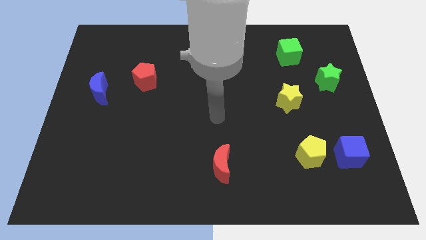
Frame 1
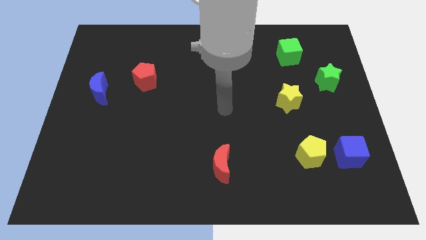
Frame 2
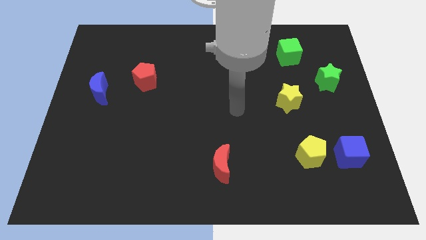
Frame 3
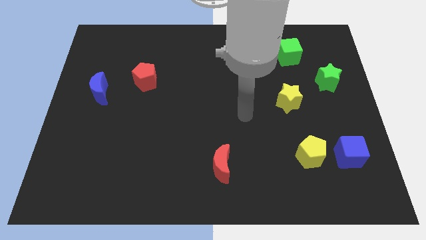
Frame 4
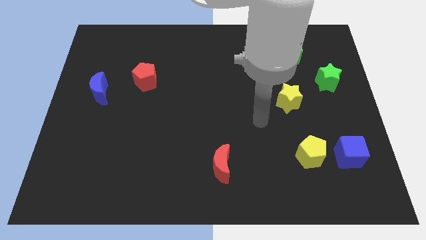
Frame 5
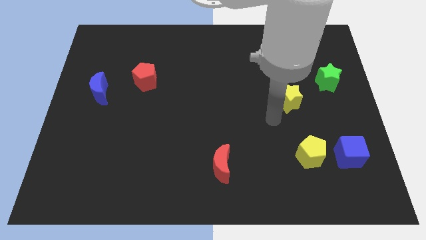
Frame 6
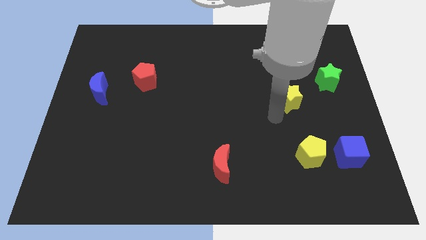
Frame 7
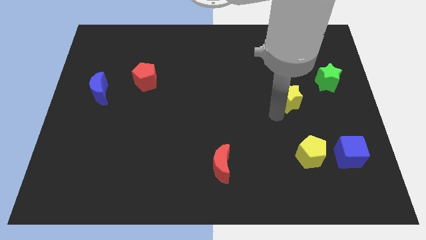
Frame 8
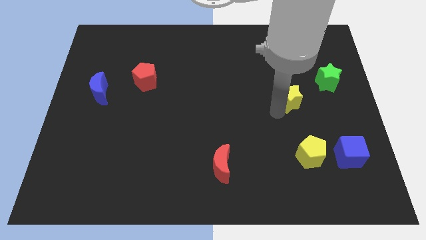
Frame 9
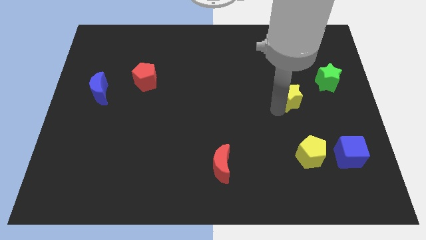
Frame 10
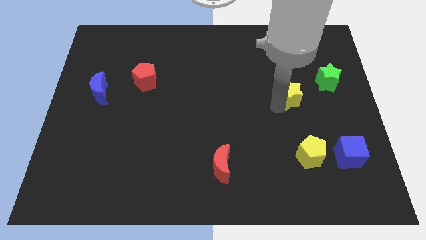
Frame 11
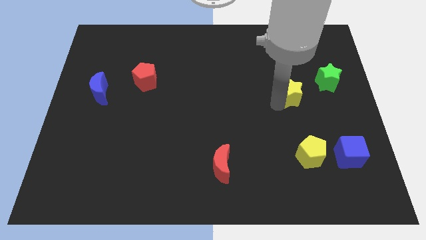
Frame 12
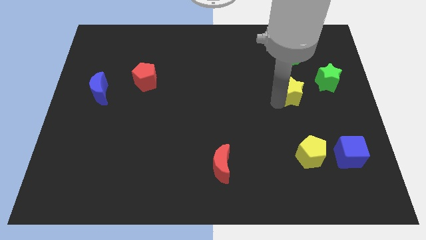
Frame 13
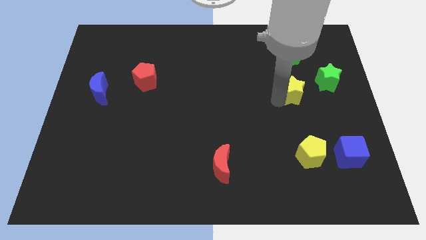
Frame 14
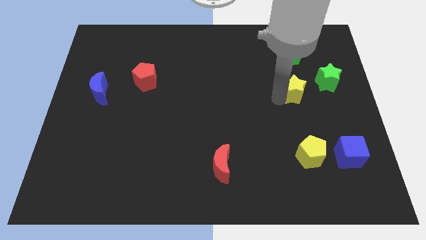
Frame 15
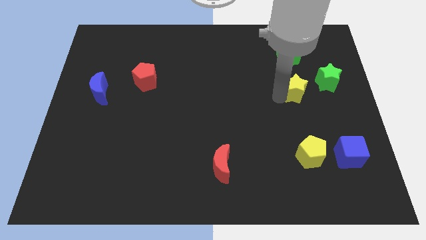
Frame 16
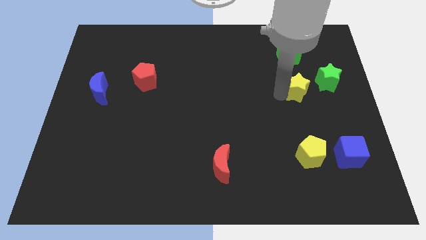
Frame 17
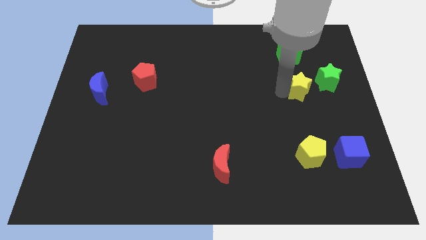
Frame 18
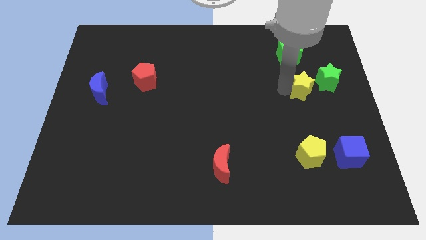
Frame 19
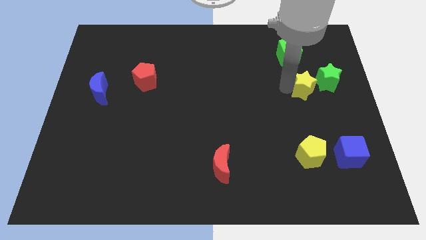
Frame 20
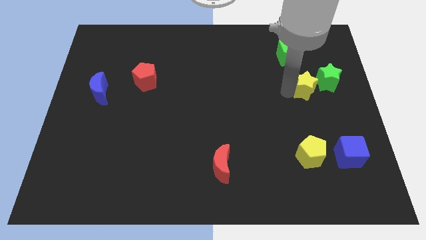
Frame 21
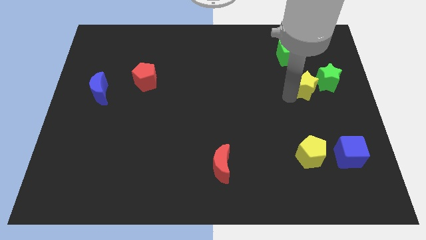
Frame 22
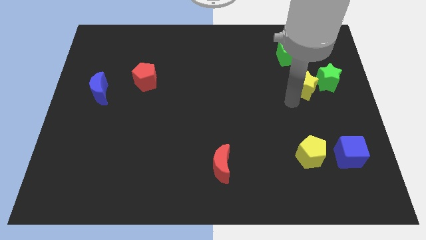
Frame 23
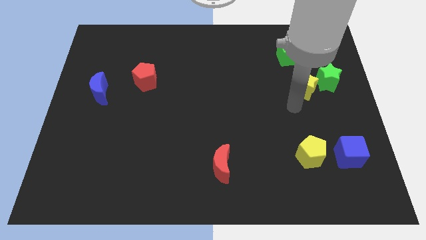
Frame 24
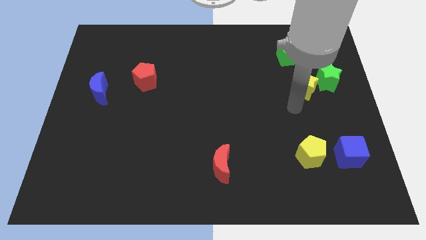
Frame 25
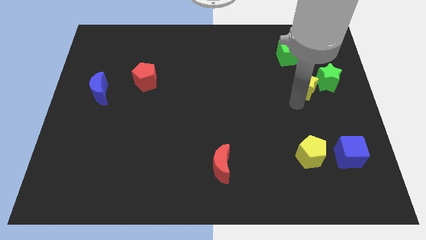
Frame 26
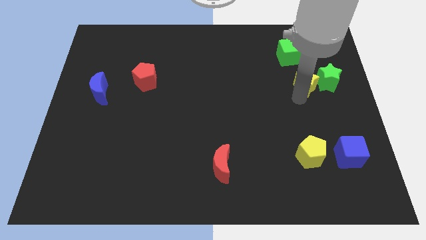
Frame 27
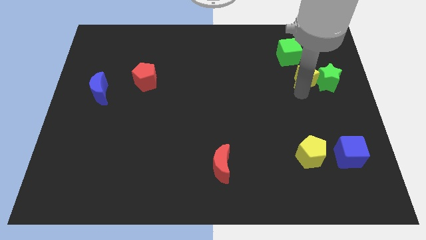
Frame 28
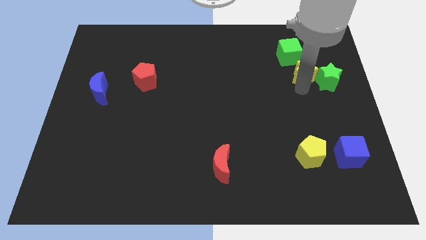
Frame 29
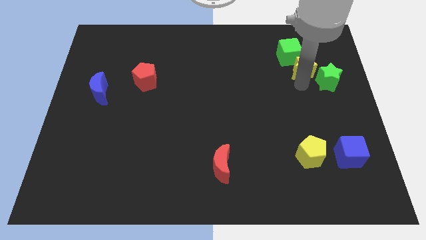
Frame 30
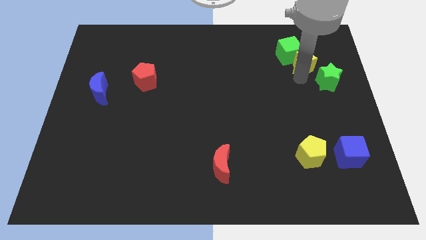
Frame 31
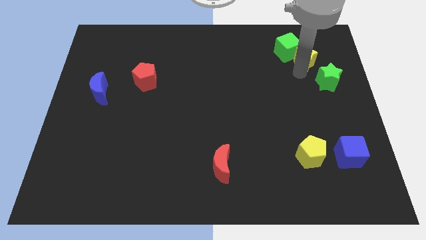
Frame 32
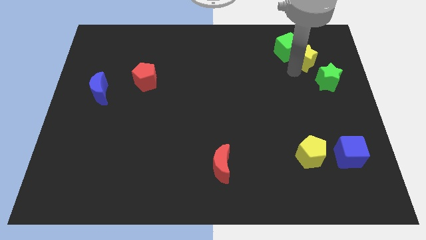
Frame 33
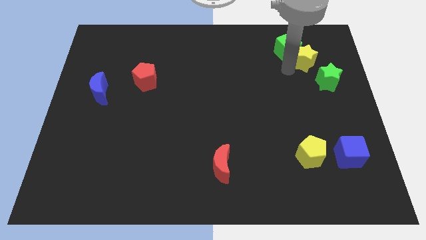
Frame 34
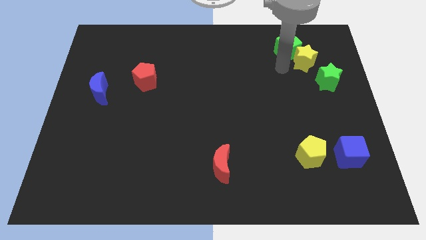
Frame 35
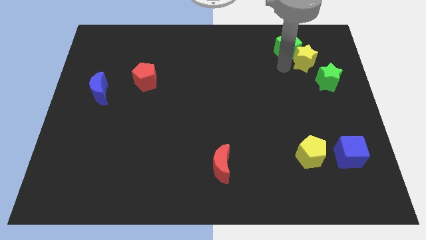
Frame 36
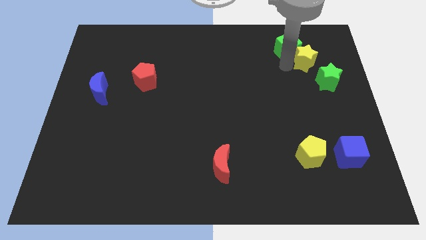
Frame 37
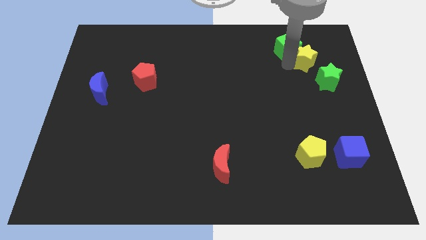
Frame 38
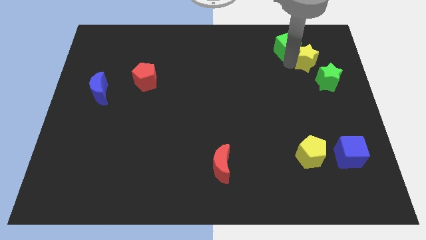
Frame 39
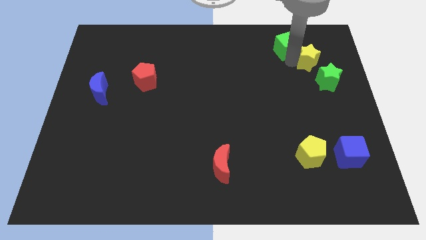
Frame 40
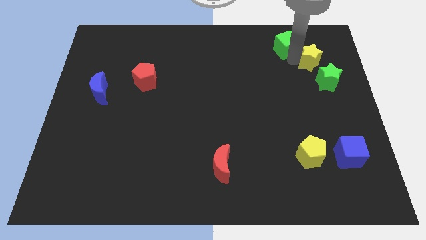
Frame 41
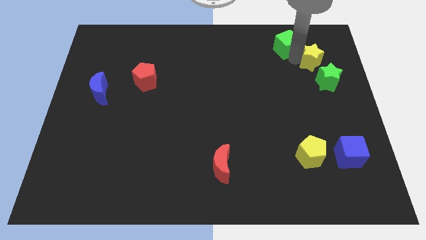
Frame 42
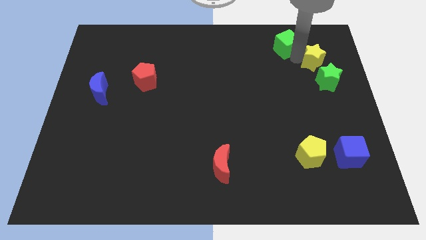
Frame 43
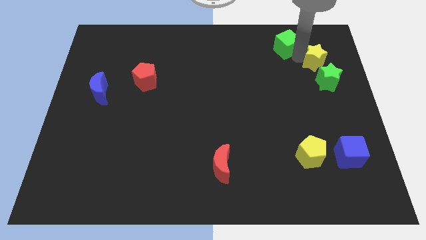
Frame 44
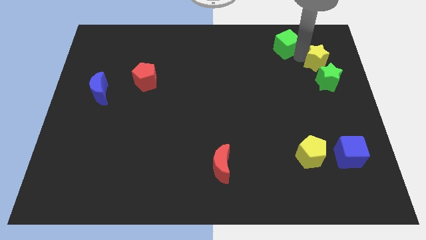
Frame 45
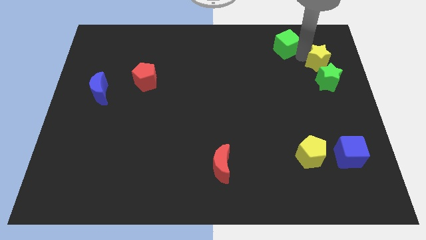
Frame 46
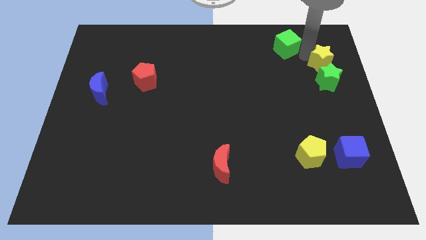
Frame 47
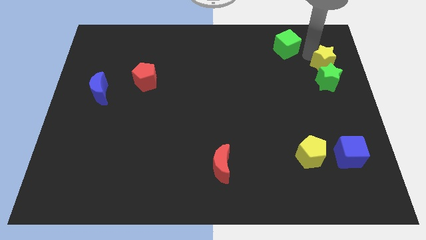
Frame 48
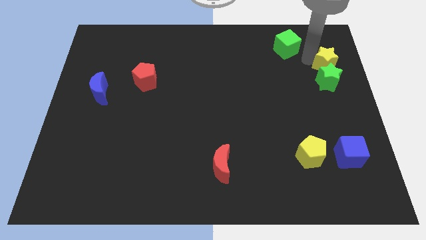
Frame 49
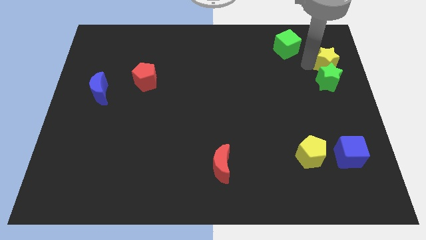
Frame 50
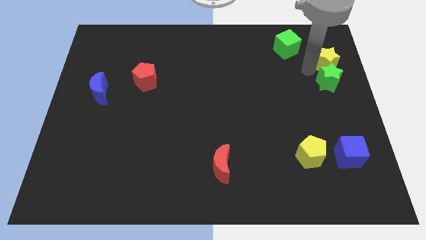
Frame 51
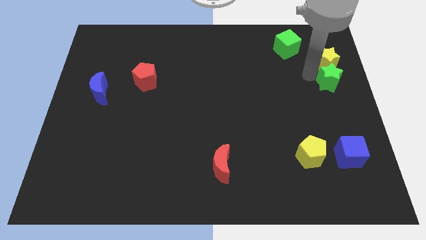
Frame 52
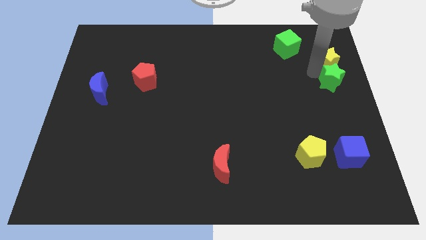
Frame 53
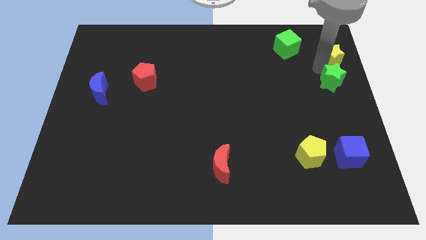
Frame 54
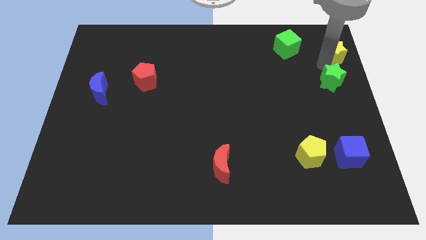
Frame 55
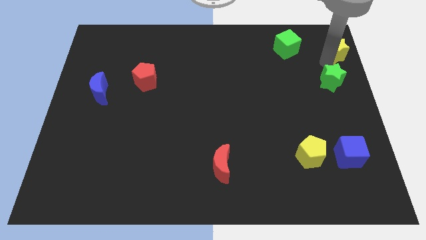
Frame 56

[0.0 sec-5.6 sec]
push the yellow star to the top right of the board
